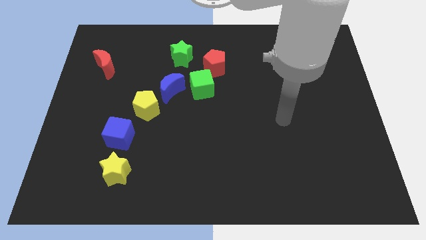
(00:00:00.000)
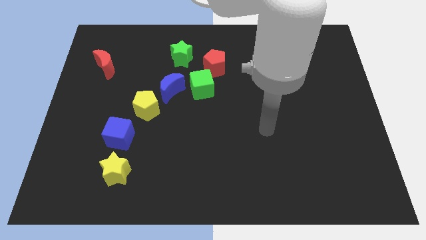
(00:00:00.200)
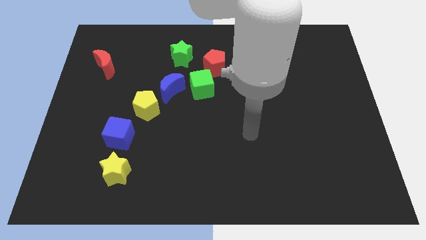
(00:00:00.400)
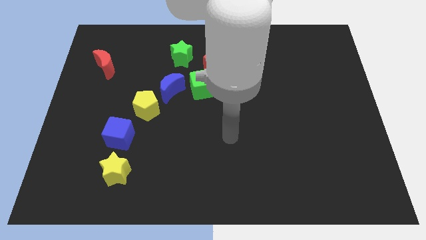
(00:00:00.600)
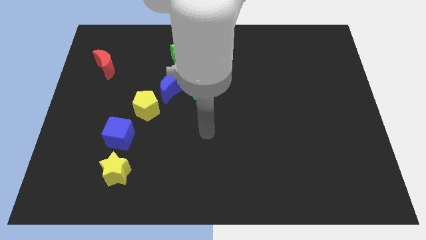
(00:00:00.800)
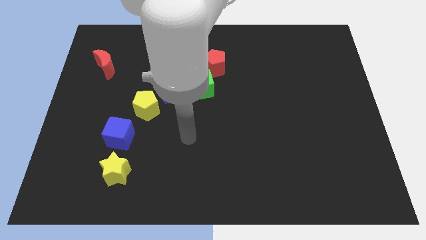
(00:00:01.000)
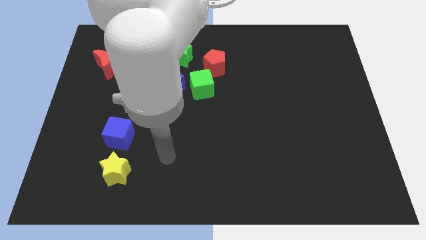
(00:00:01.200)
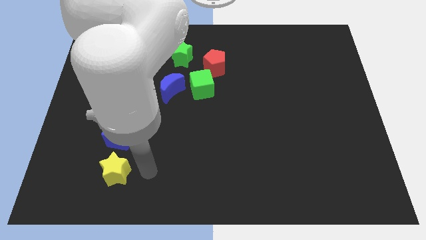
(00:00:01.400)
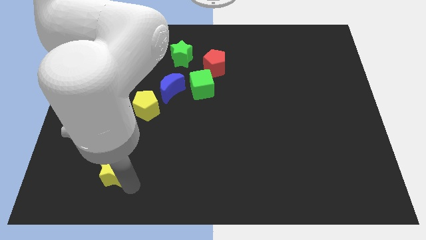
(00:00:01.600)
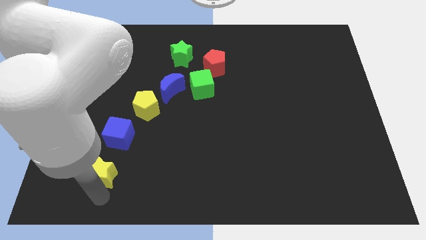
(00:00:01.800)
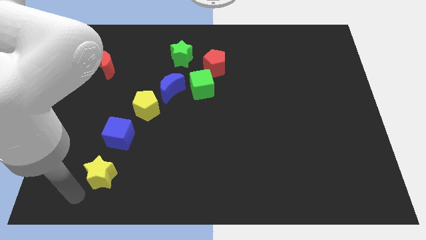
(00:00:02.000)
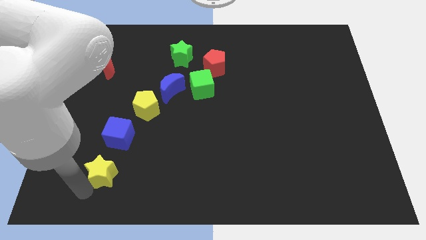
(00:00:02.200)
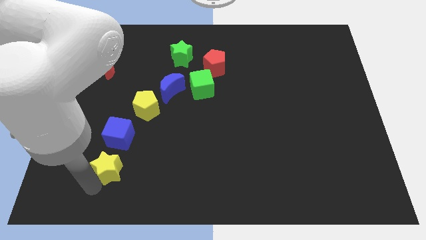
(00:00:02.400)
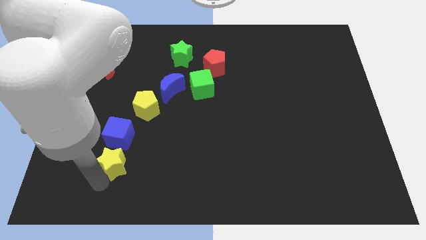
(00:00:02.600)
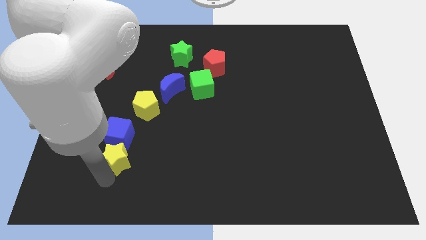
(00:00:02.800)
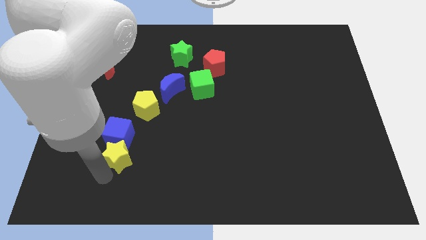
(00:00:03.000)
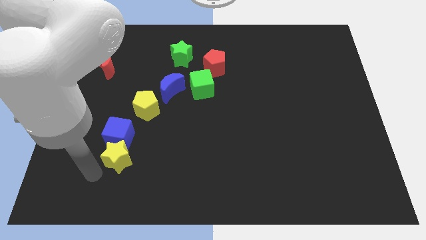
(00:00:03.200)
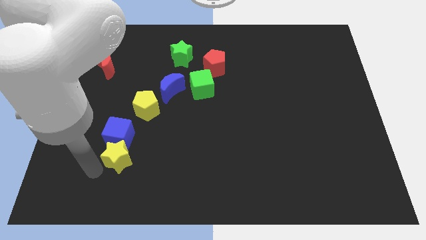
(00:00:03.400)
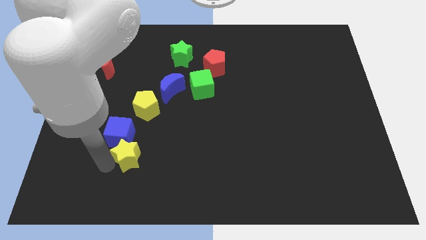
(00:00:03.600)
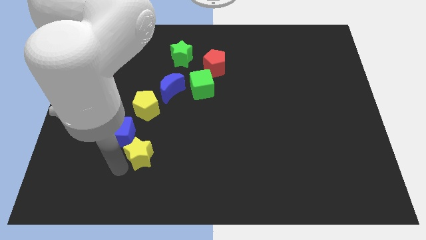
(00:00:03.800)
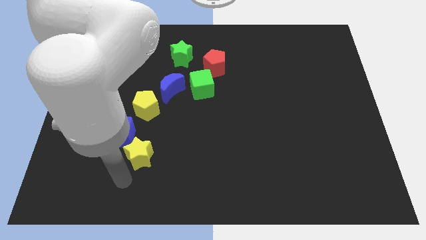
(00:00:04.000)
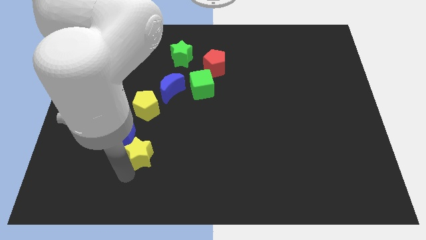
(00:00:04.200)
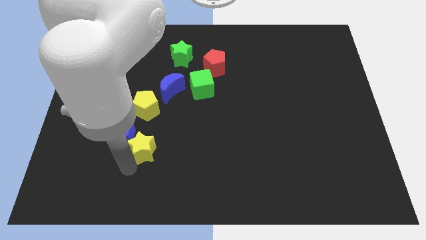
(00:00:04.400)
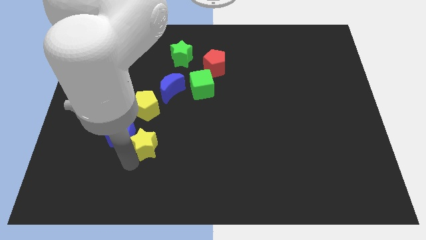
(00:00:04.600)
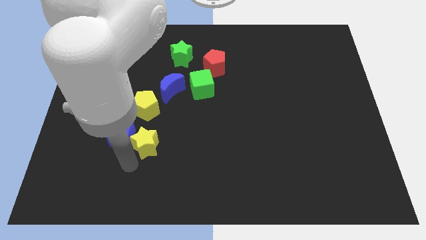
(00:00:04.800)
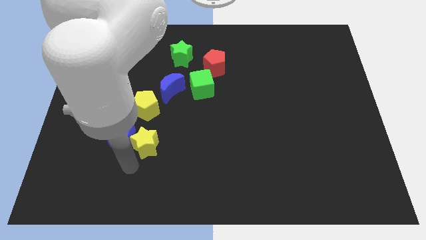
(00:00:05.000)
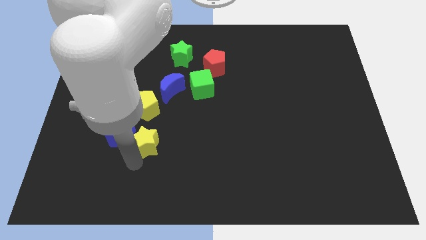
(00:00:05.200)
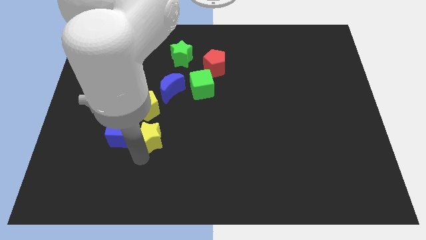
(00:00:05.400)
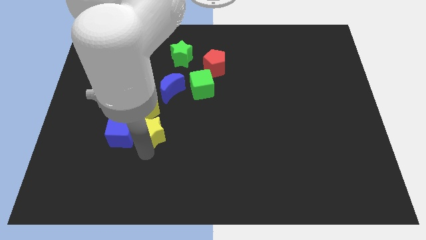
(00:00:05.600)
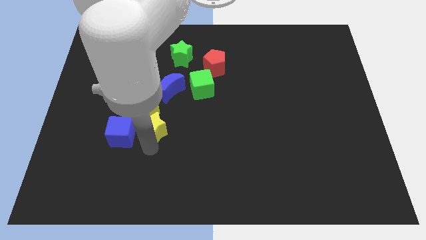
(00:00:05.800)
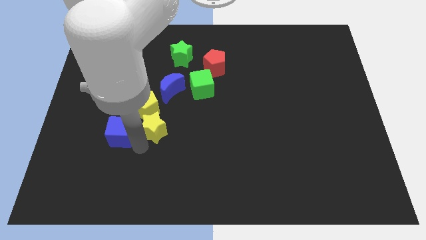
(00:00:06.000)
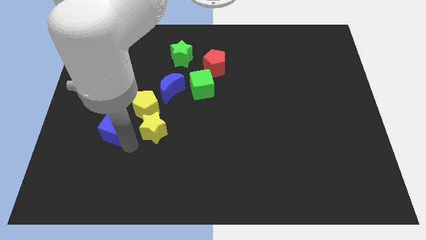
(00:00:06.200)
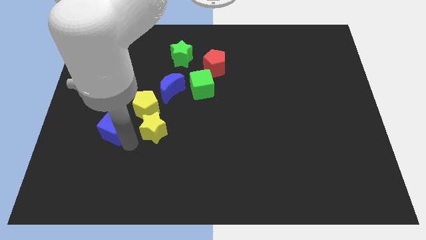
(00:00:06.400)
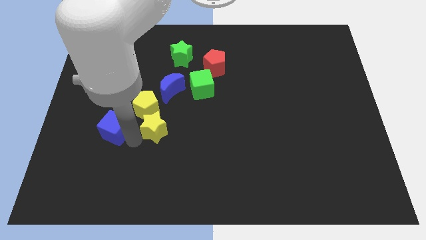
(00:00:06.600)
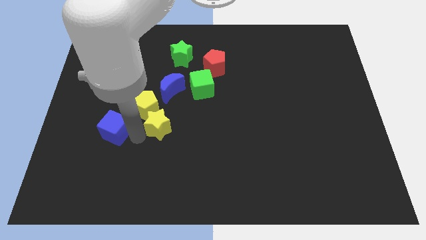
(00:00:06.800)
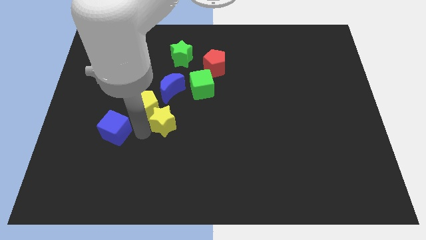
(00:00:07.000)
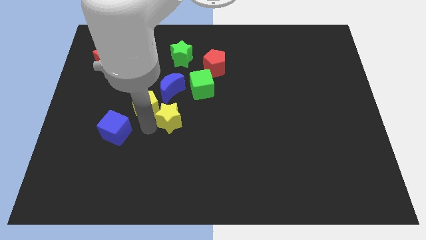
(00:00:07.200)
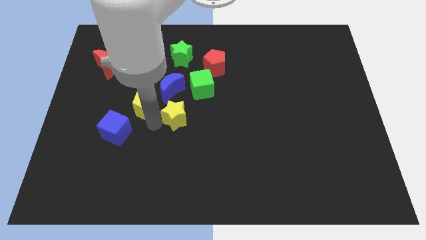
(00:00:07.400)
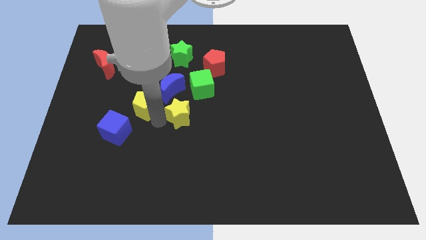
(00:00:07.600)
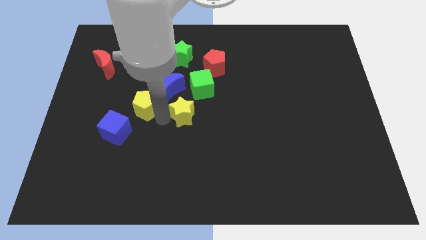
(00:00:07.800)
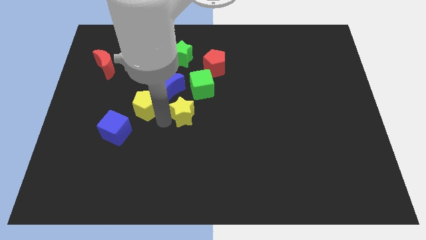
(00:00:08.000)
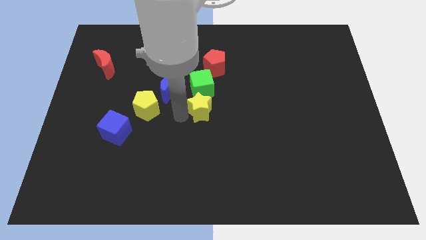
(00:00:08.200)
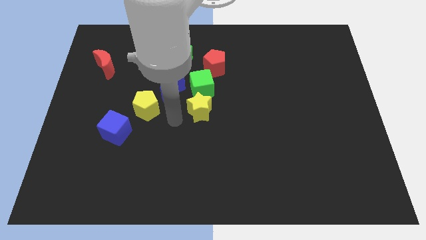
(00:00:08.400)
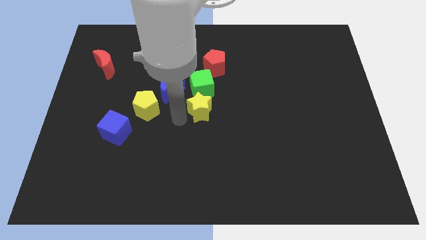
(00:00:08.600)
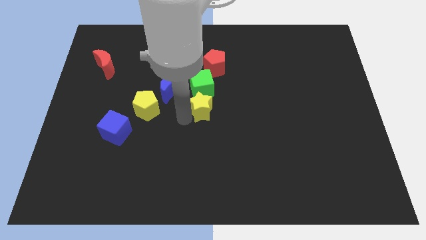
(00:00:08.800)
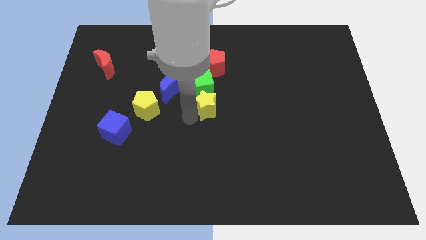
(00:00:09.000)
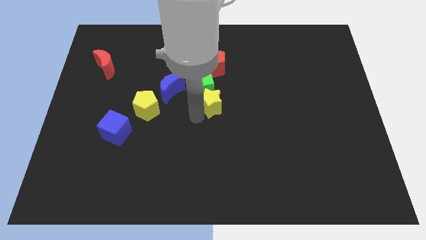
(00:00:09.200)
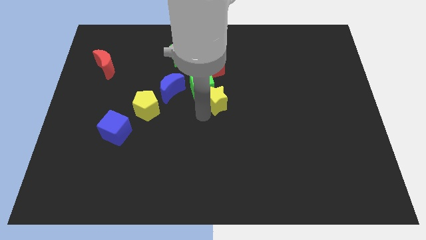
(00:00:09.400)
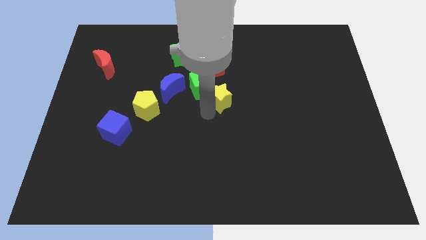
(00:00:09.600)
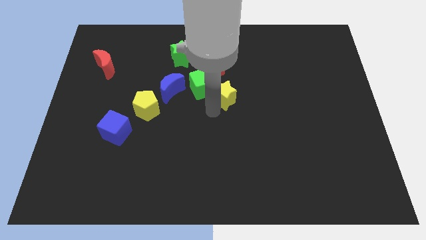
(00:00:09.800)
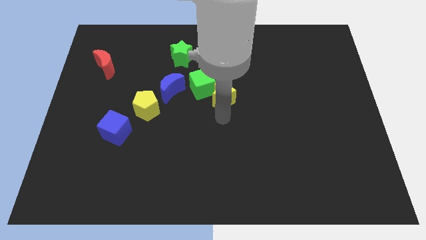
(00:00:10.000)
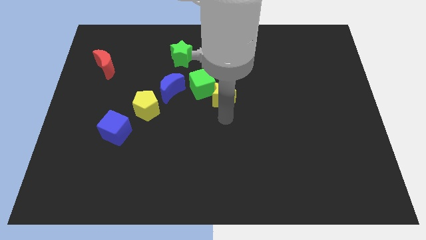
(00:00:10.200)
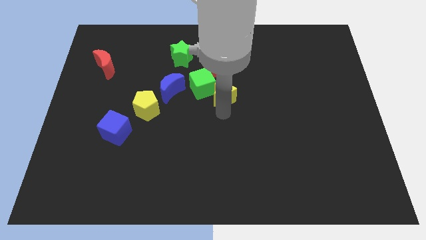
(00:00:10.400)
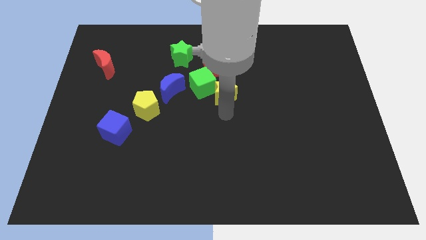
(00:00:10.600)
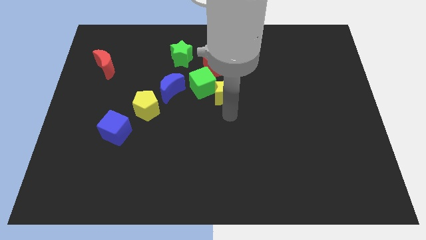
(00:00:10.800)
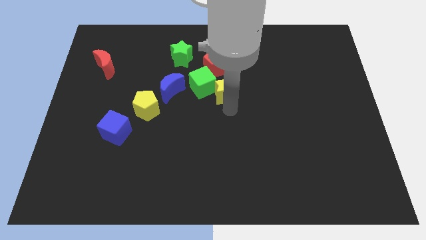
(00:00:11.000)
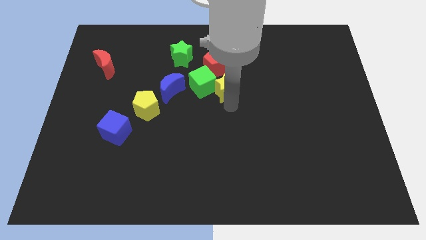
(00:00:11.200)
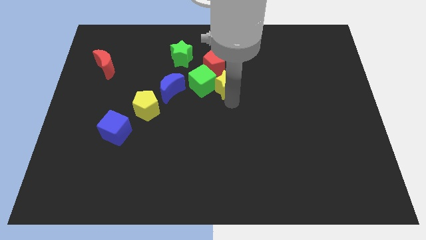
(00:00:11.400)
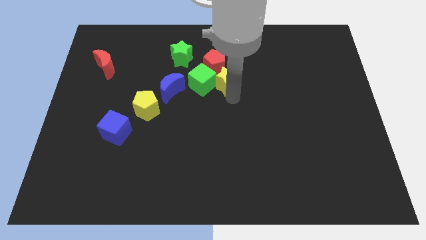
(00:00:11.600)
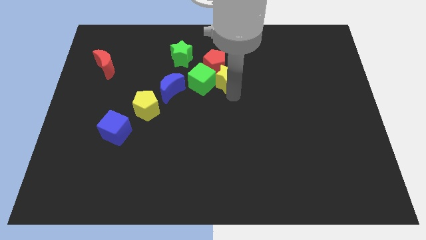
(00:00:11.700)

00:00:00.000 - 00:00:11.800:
slide the yellow star close to the red pentagon

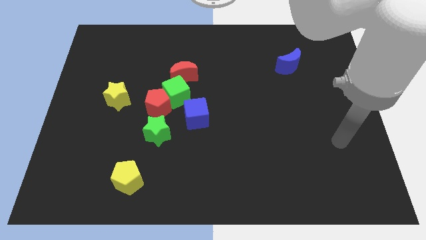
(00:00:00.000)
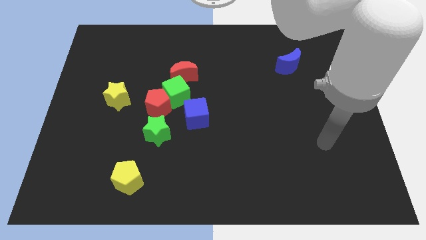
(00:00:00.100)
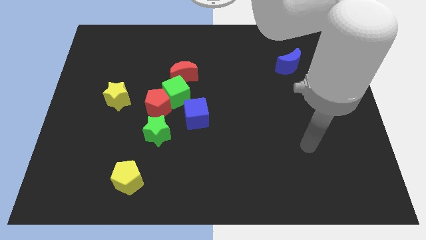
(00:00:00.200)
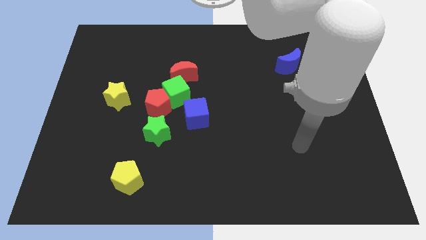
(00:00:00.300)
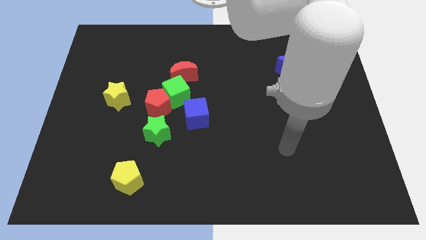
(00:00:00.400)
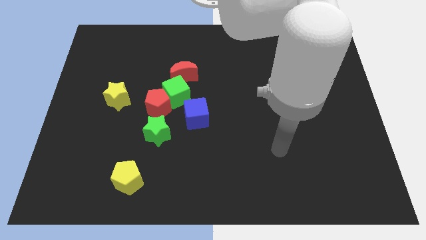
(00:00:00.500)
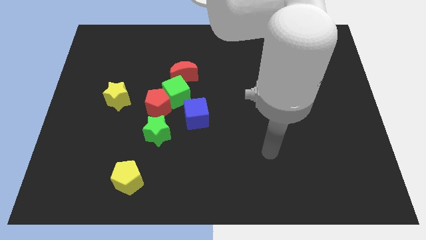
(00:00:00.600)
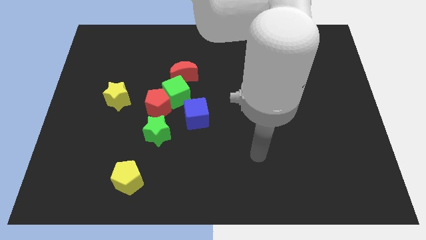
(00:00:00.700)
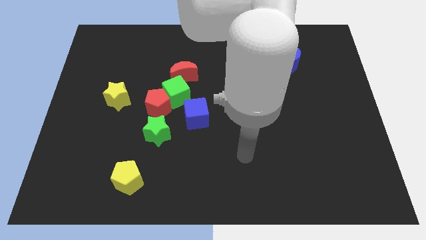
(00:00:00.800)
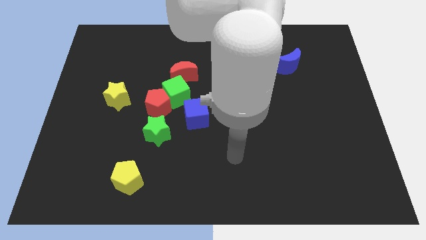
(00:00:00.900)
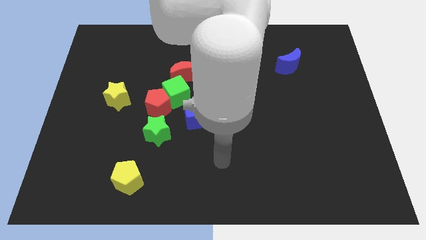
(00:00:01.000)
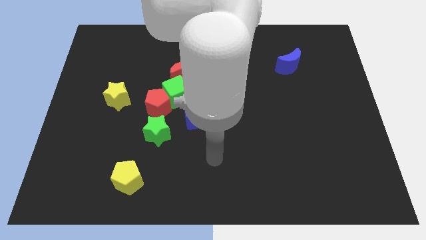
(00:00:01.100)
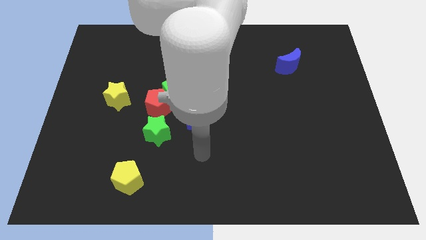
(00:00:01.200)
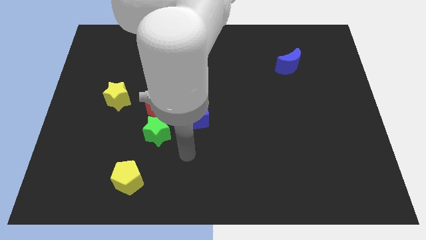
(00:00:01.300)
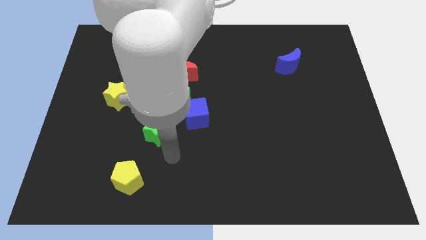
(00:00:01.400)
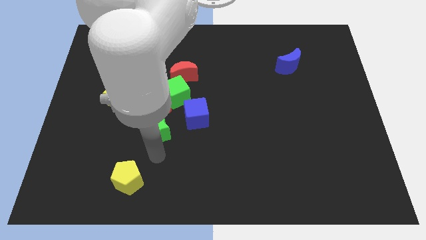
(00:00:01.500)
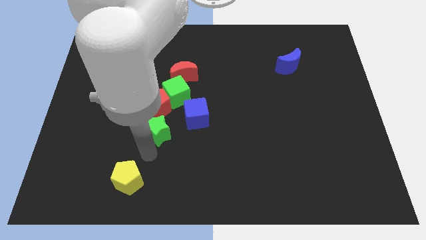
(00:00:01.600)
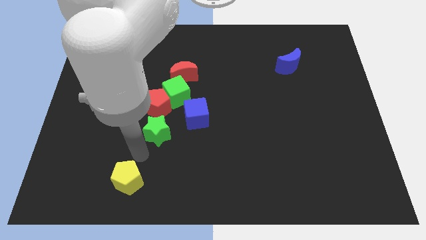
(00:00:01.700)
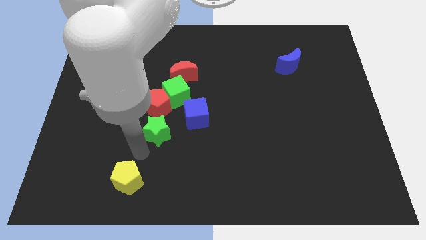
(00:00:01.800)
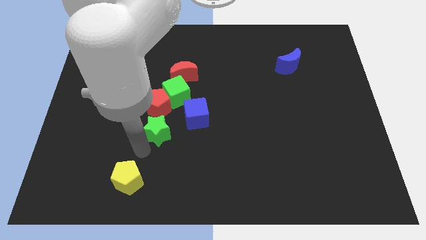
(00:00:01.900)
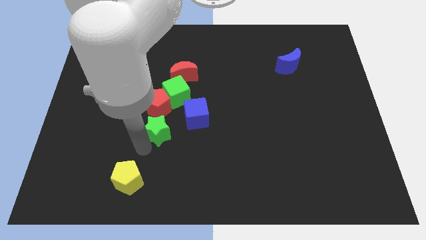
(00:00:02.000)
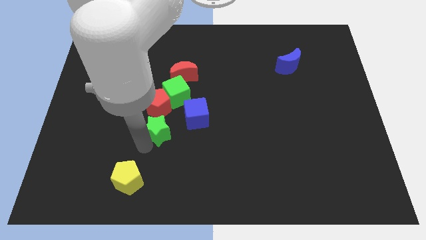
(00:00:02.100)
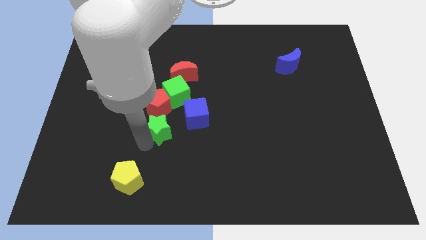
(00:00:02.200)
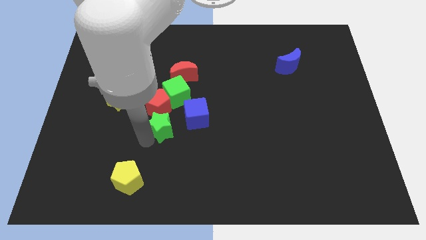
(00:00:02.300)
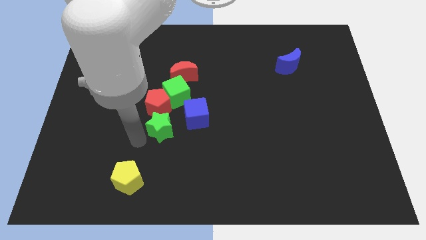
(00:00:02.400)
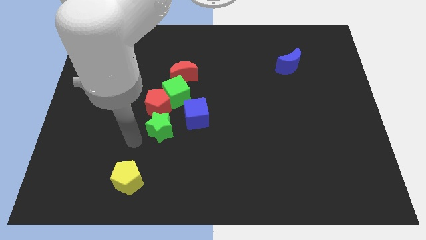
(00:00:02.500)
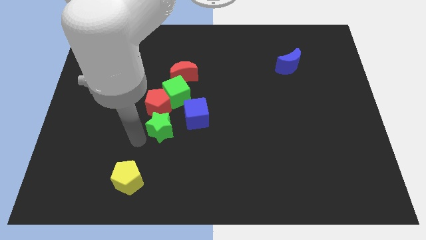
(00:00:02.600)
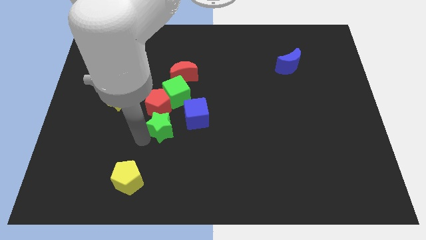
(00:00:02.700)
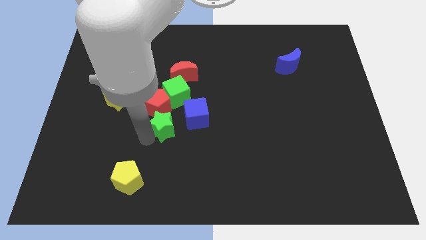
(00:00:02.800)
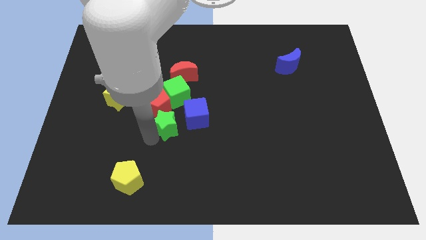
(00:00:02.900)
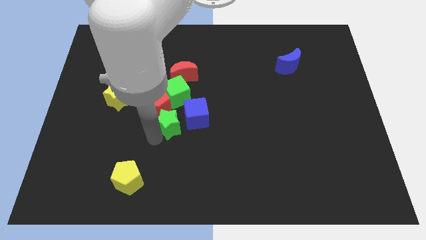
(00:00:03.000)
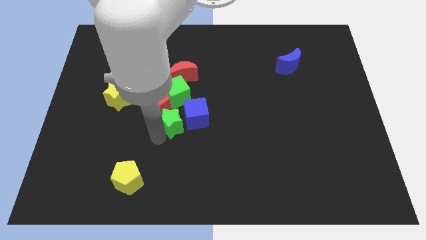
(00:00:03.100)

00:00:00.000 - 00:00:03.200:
push the green star next to the blue cube
